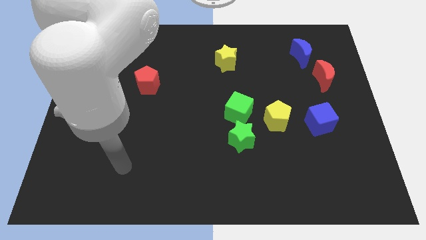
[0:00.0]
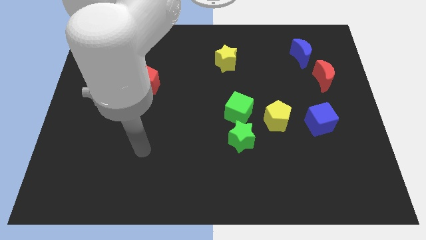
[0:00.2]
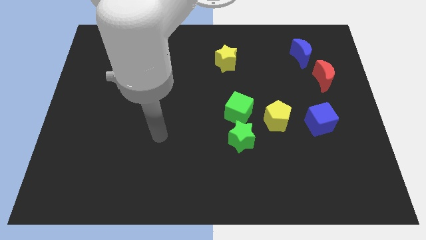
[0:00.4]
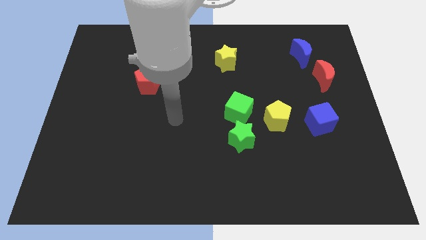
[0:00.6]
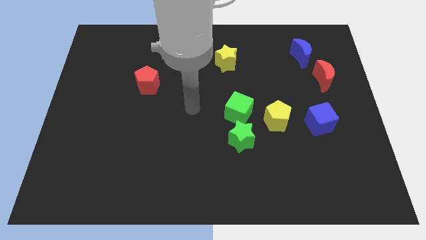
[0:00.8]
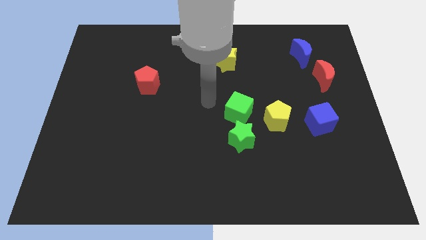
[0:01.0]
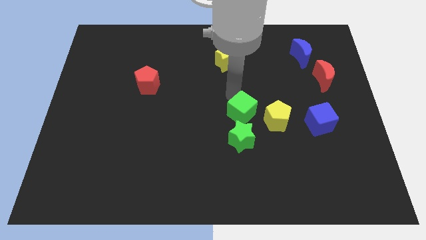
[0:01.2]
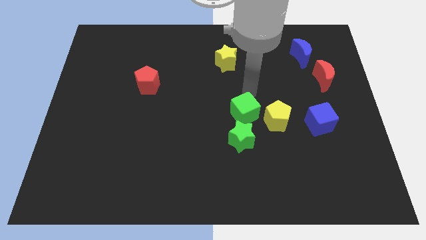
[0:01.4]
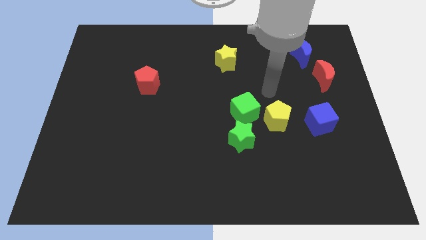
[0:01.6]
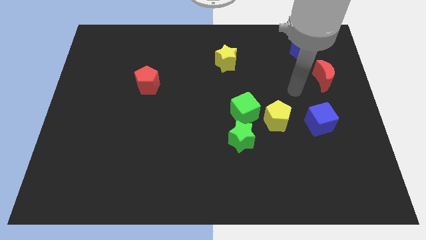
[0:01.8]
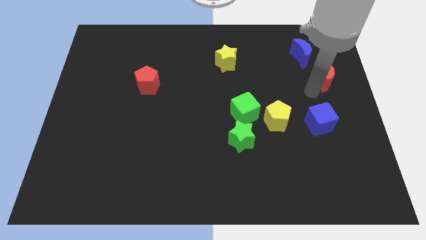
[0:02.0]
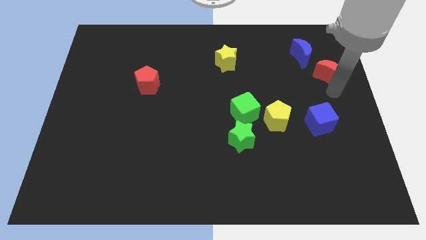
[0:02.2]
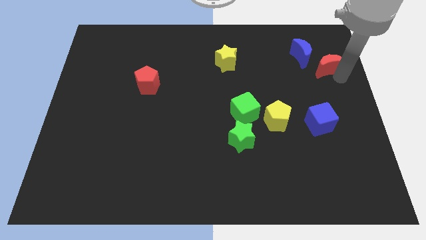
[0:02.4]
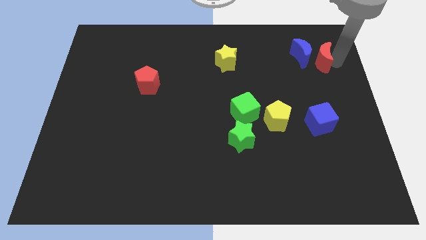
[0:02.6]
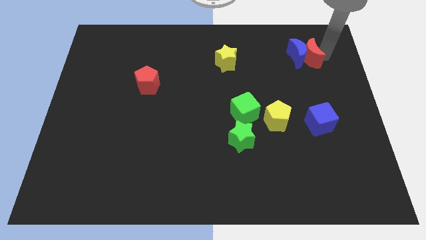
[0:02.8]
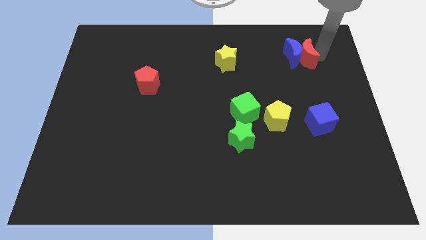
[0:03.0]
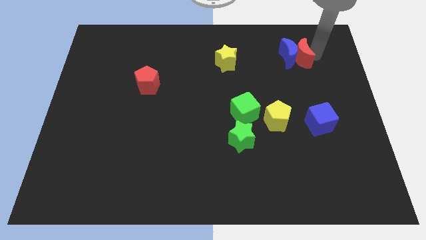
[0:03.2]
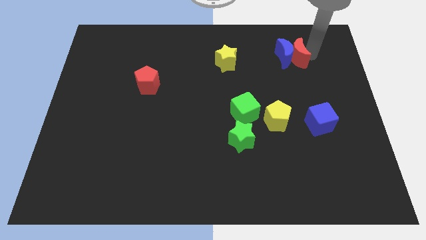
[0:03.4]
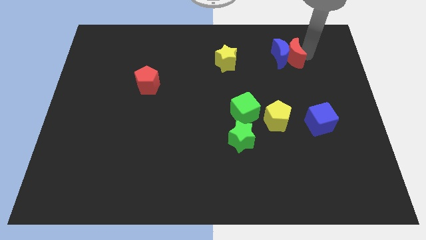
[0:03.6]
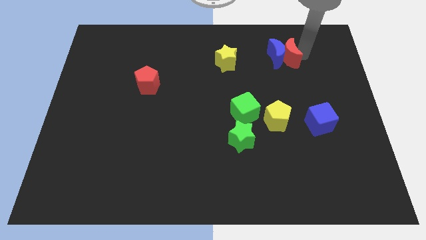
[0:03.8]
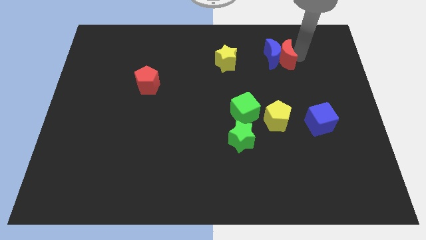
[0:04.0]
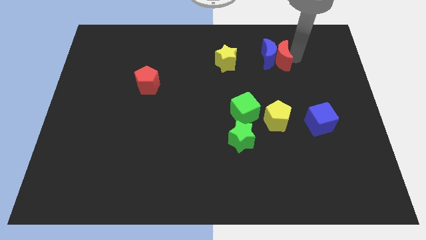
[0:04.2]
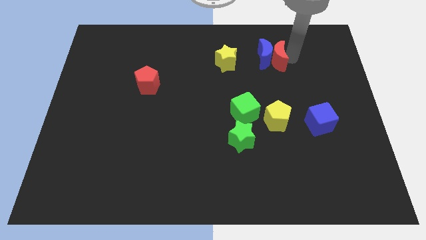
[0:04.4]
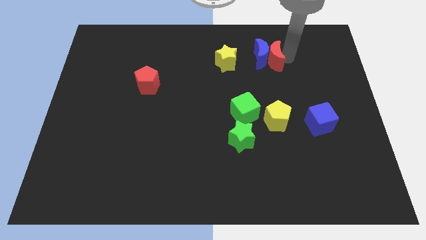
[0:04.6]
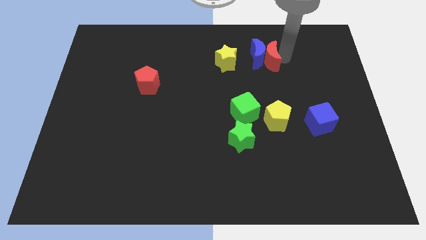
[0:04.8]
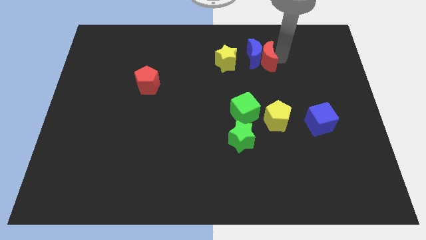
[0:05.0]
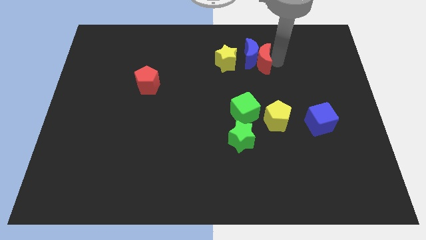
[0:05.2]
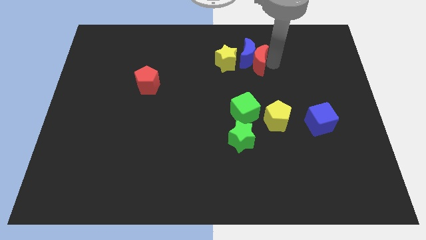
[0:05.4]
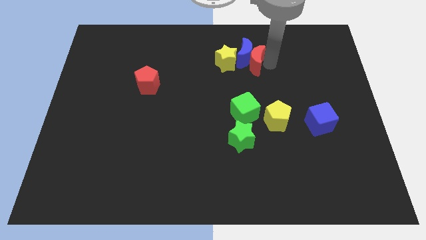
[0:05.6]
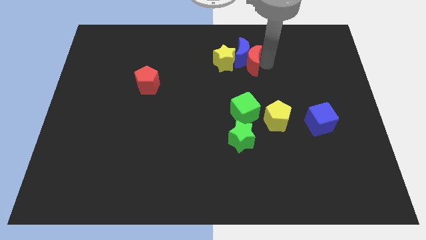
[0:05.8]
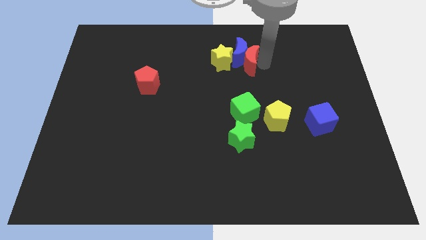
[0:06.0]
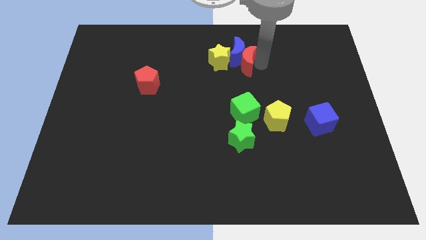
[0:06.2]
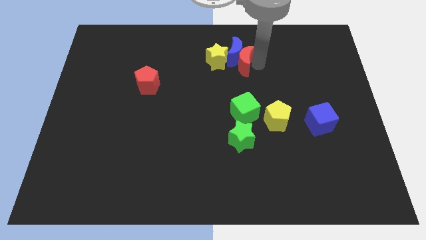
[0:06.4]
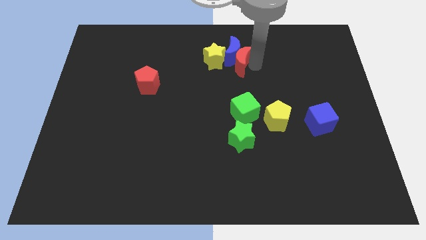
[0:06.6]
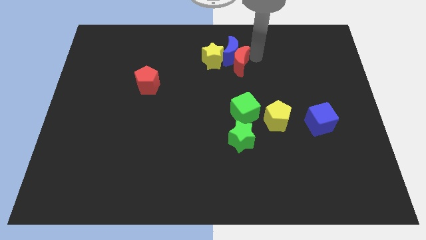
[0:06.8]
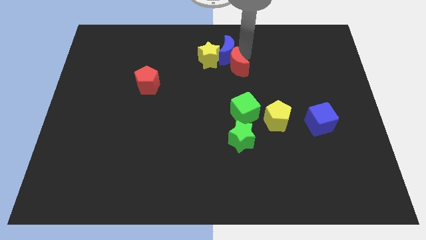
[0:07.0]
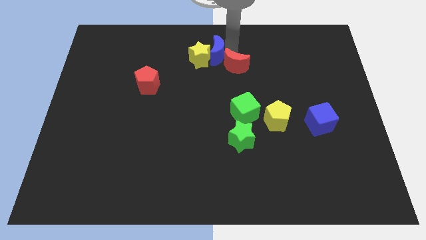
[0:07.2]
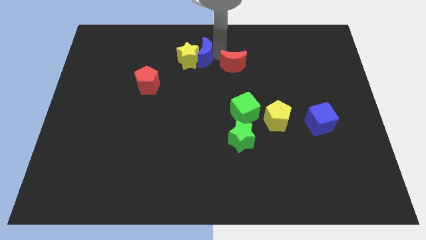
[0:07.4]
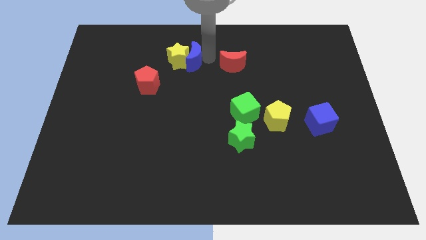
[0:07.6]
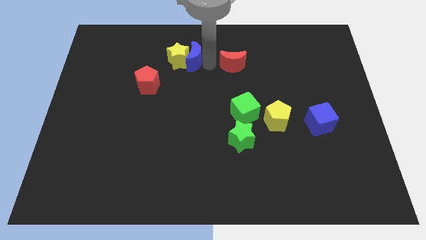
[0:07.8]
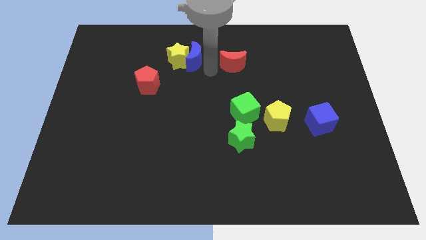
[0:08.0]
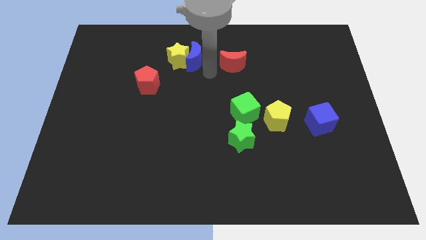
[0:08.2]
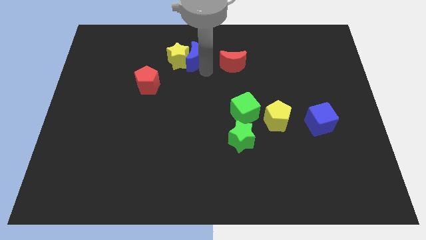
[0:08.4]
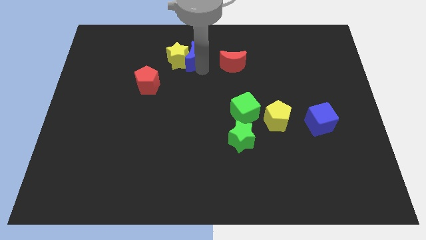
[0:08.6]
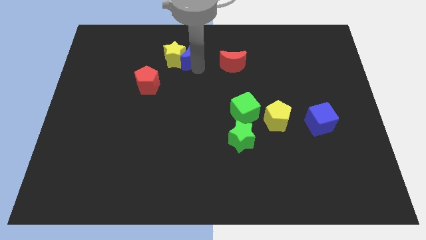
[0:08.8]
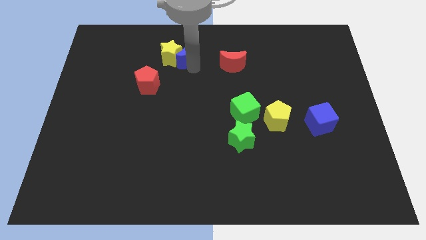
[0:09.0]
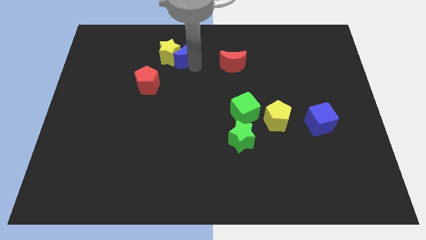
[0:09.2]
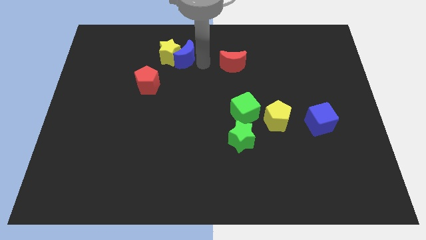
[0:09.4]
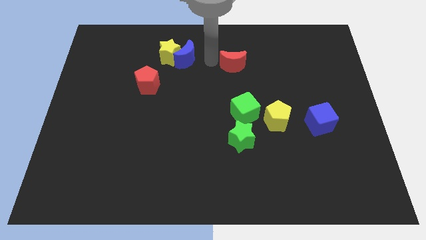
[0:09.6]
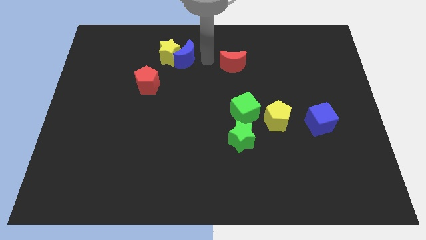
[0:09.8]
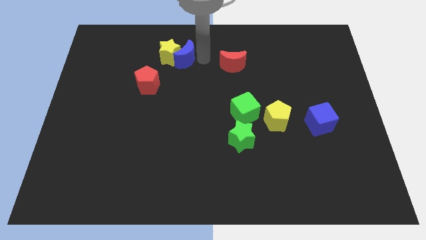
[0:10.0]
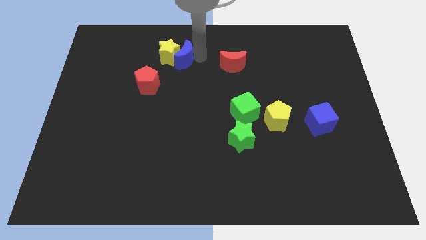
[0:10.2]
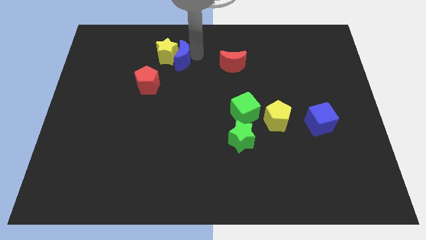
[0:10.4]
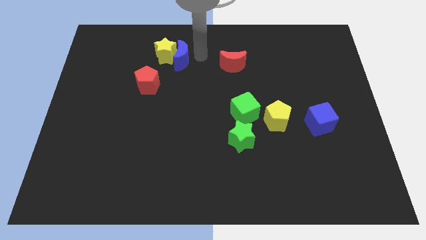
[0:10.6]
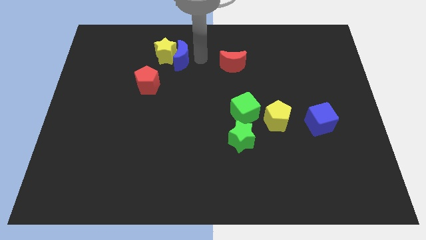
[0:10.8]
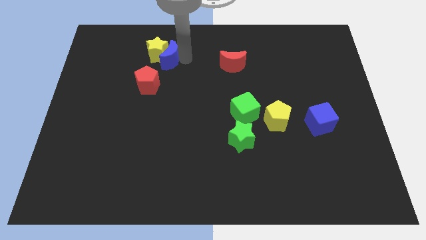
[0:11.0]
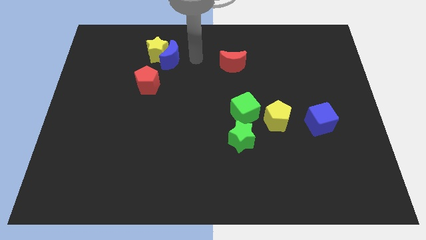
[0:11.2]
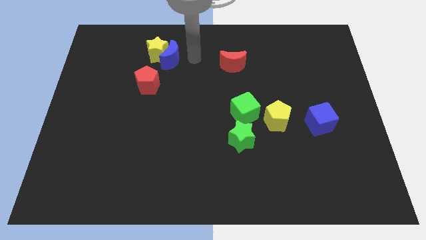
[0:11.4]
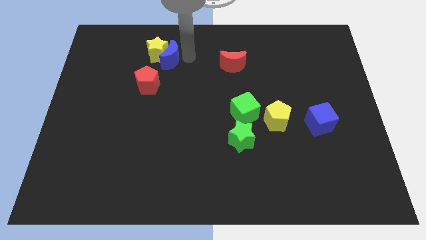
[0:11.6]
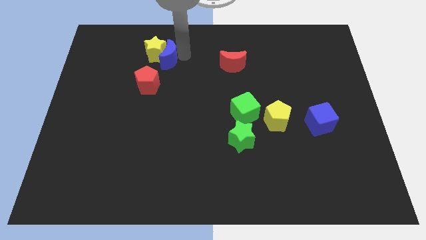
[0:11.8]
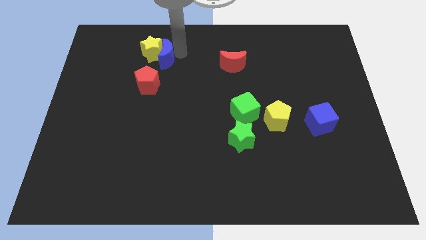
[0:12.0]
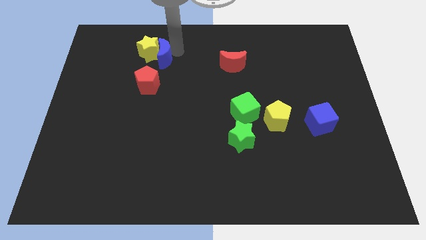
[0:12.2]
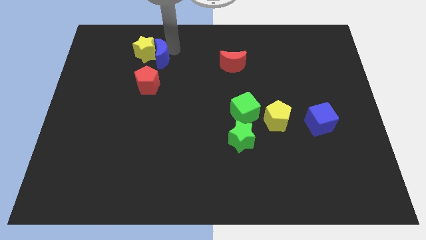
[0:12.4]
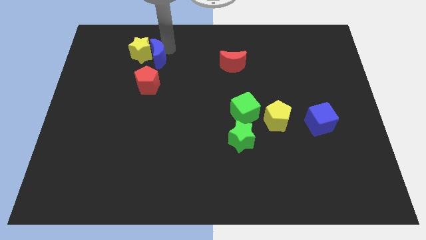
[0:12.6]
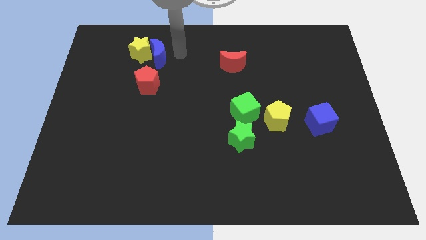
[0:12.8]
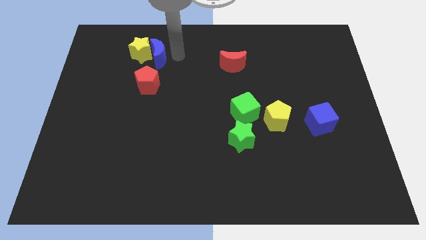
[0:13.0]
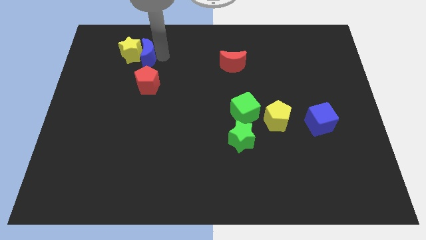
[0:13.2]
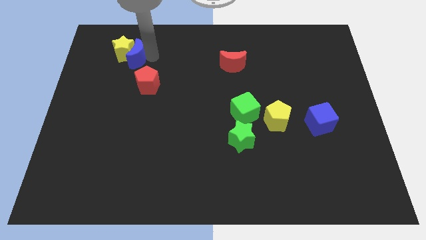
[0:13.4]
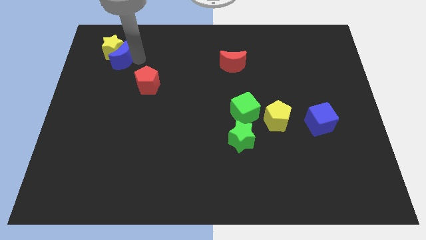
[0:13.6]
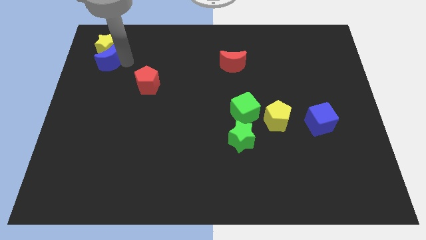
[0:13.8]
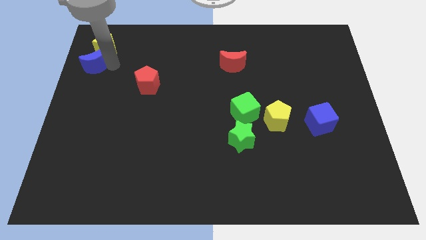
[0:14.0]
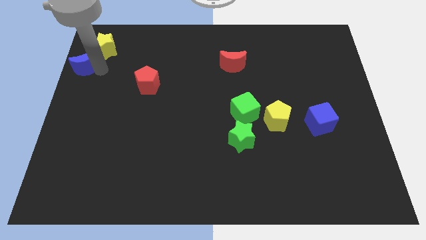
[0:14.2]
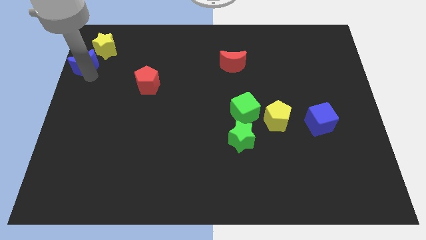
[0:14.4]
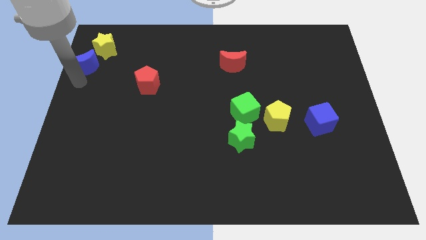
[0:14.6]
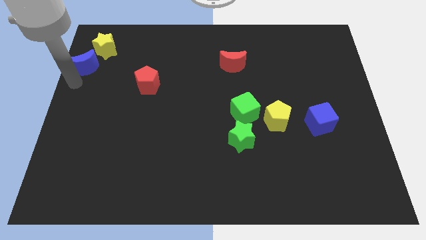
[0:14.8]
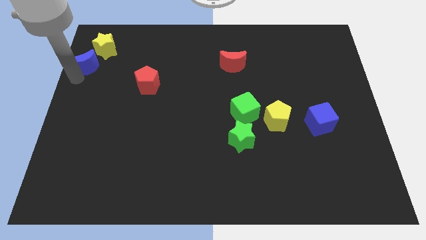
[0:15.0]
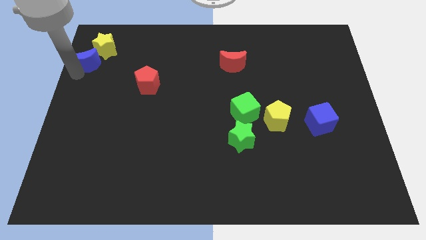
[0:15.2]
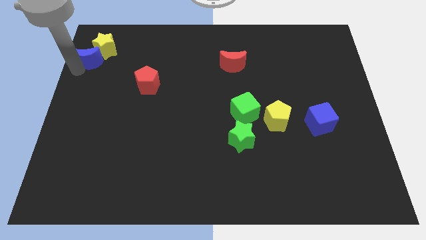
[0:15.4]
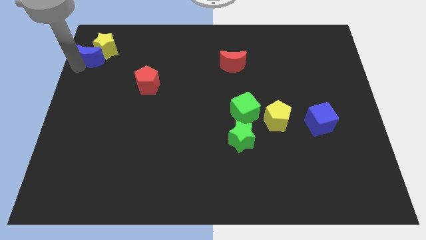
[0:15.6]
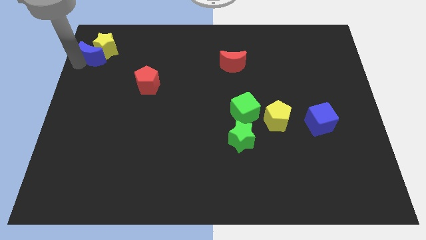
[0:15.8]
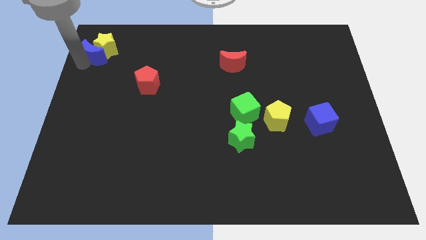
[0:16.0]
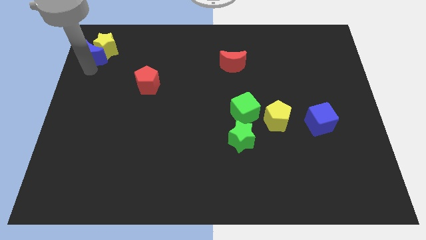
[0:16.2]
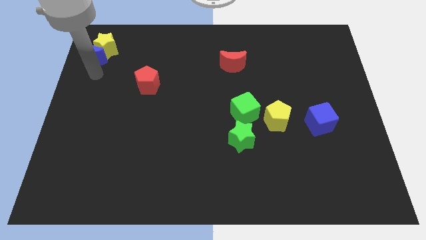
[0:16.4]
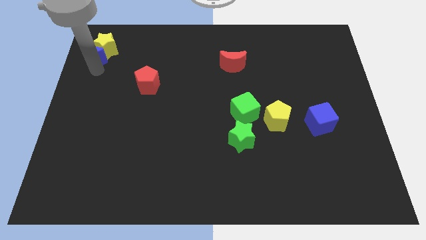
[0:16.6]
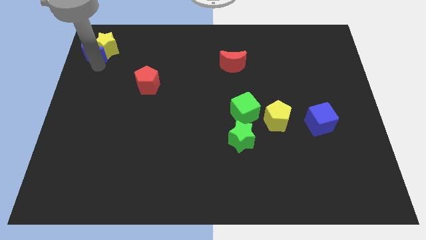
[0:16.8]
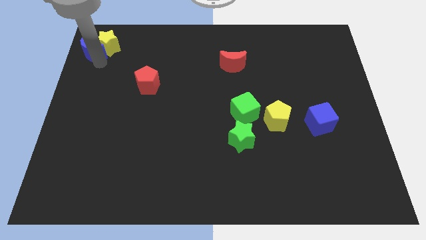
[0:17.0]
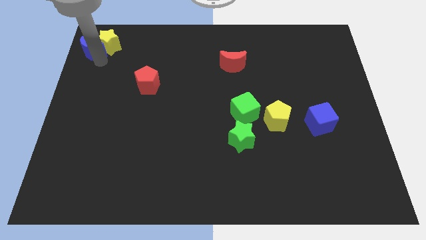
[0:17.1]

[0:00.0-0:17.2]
put the blue moon to the upper left corner
